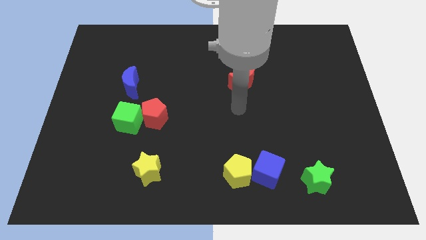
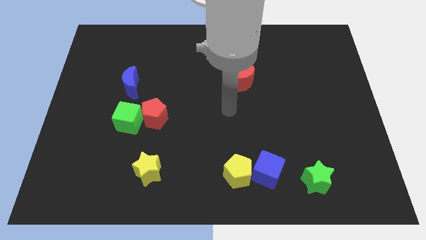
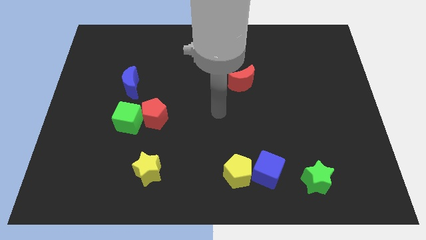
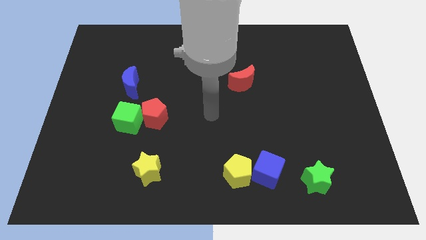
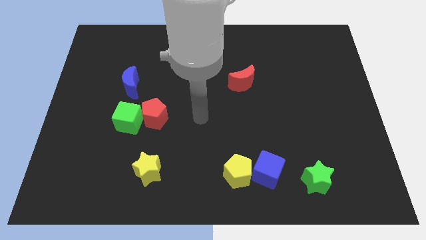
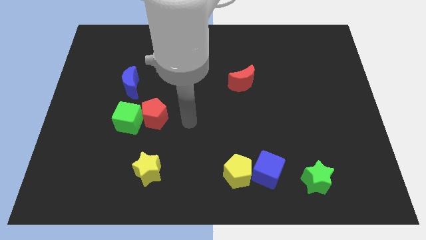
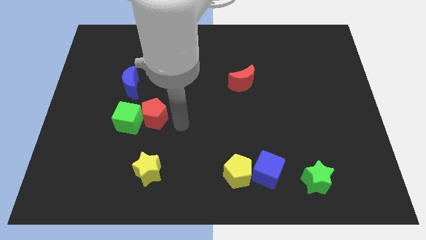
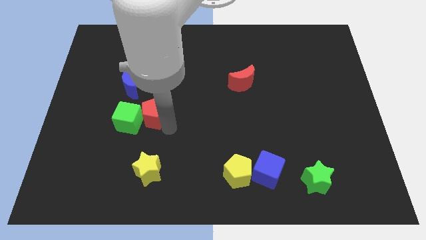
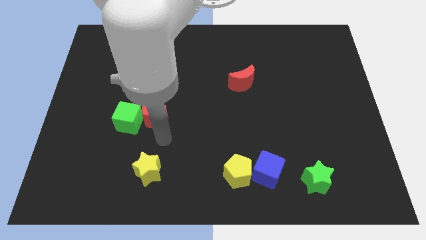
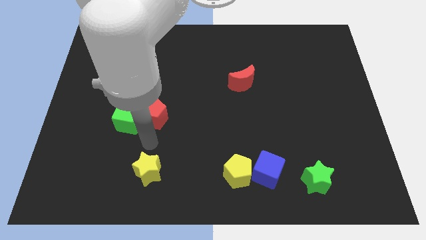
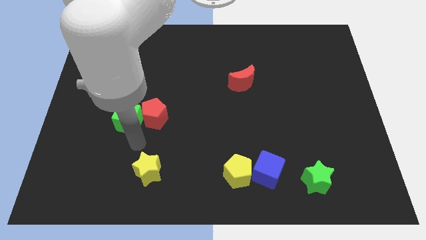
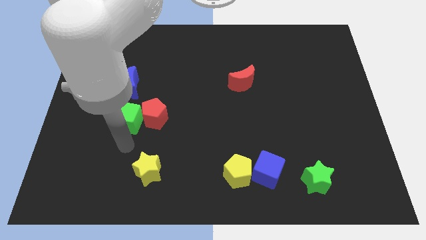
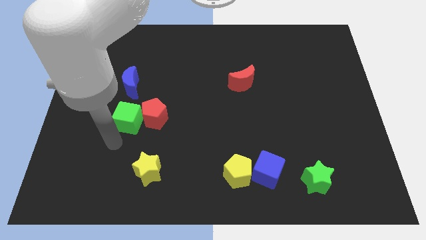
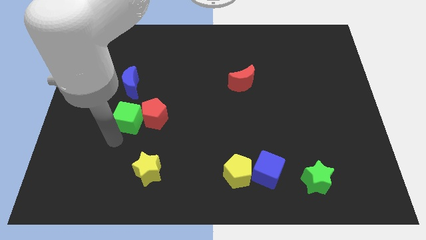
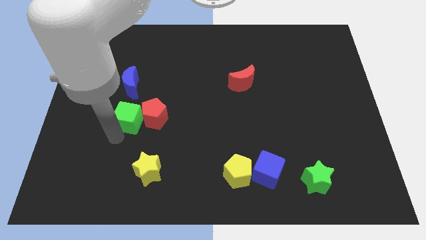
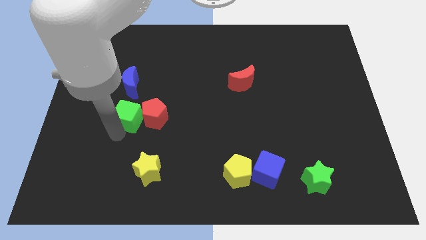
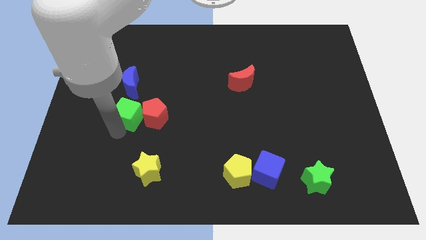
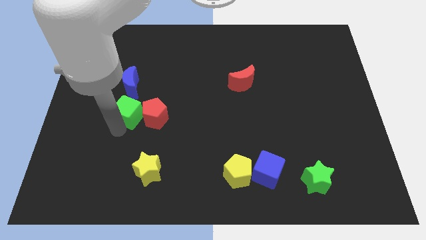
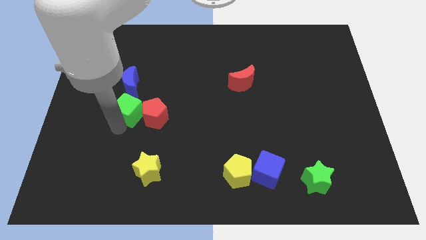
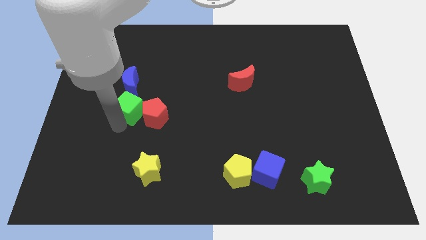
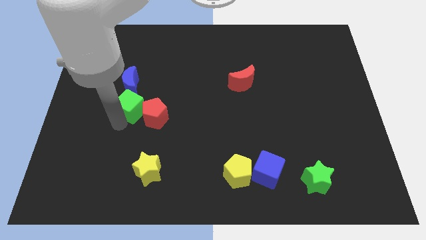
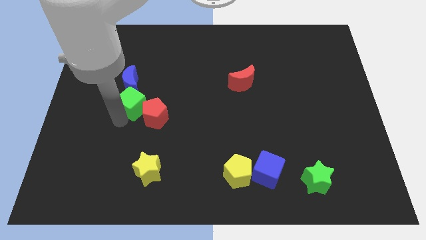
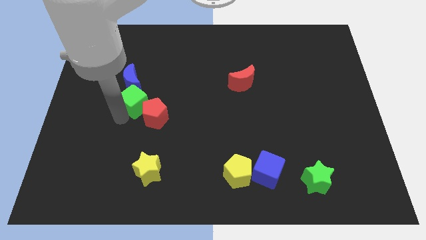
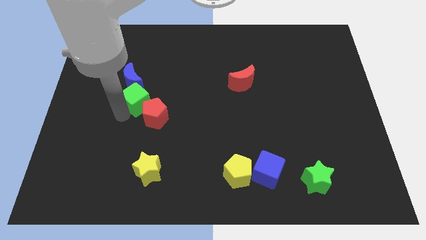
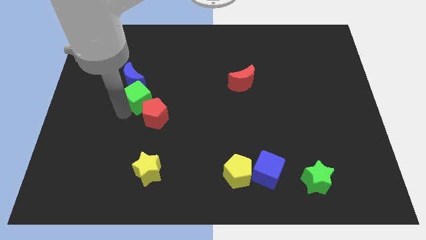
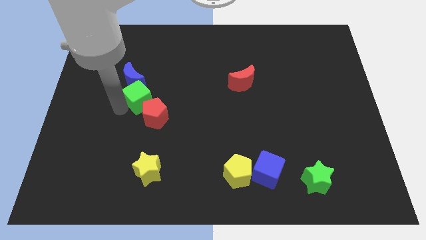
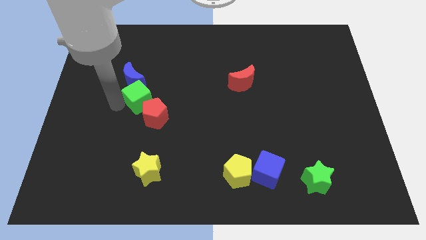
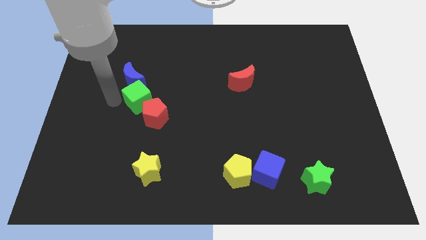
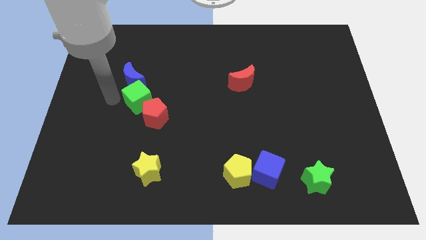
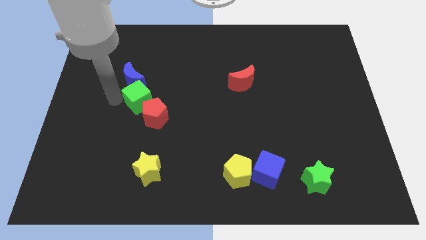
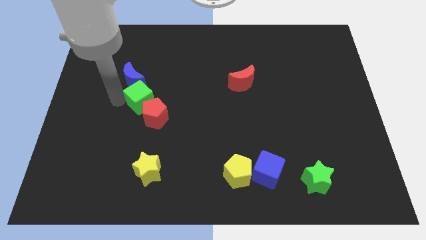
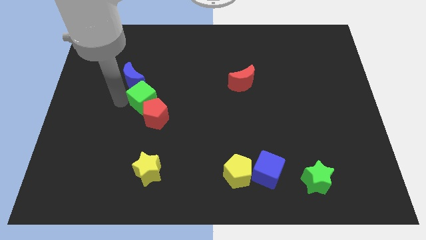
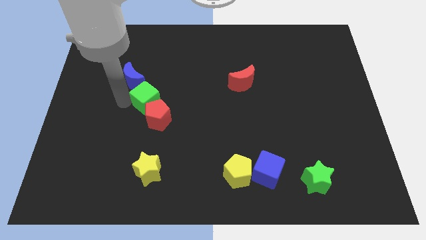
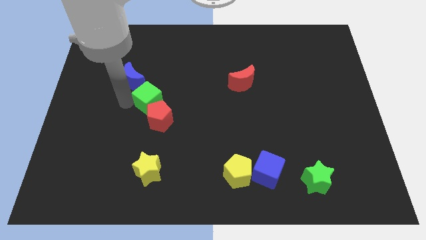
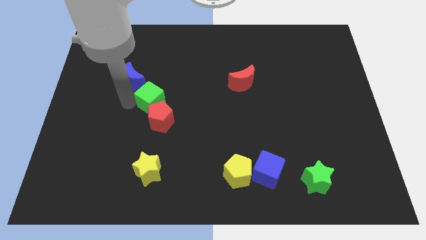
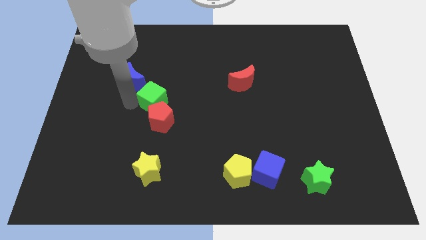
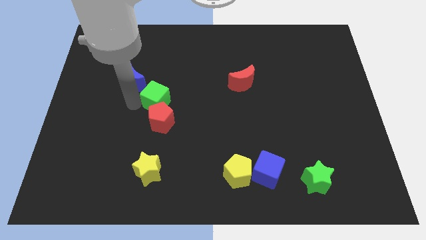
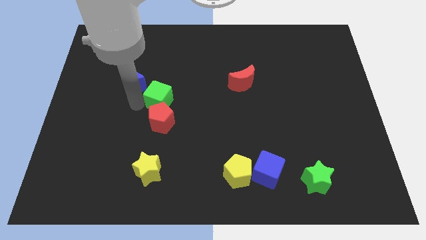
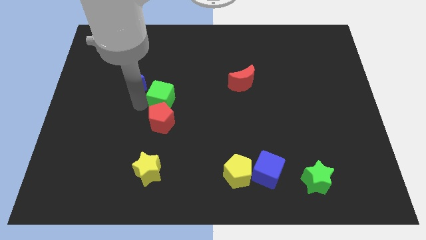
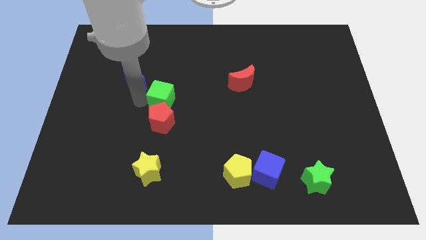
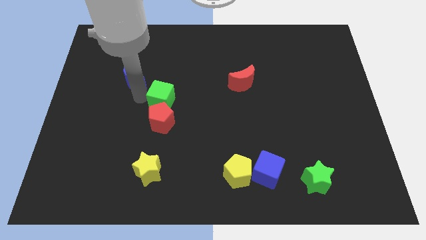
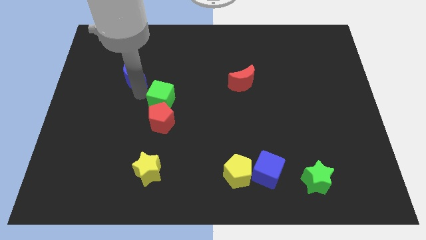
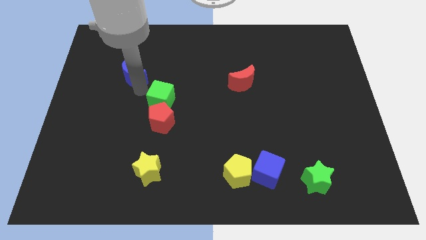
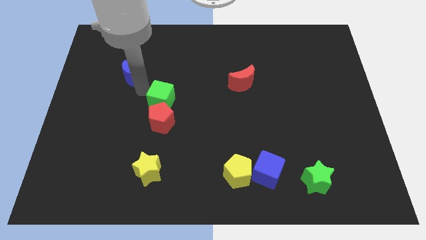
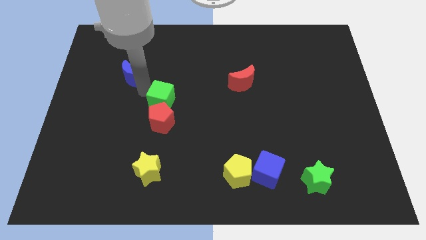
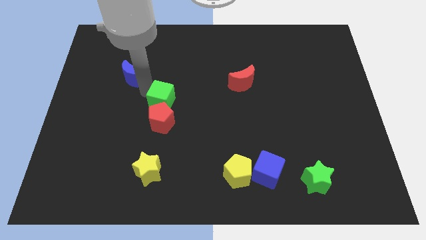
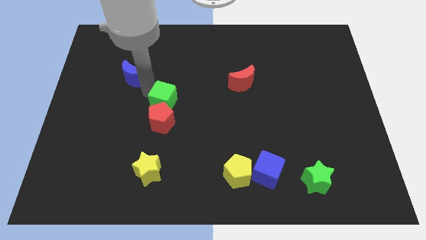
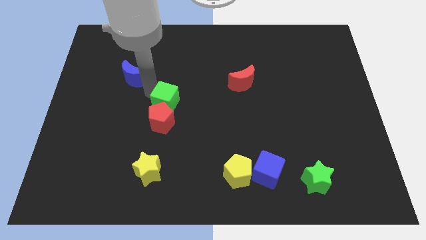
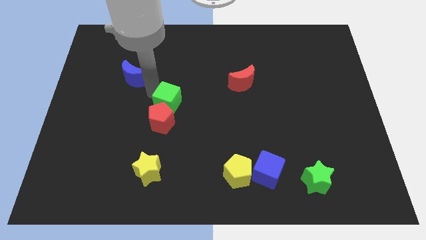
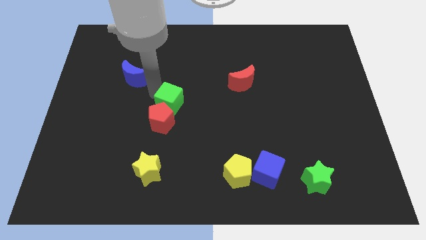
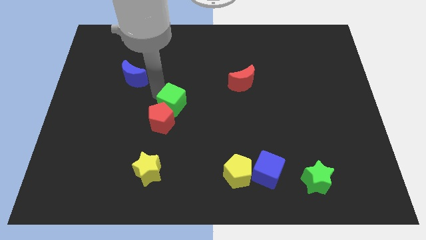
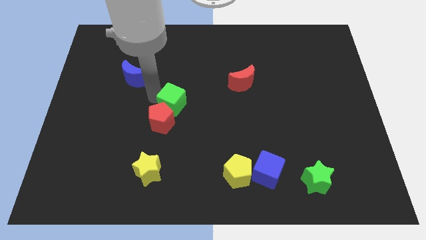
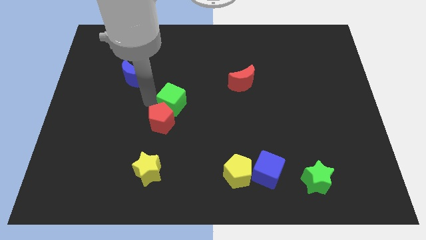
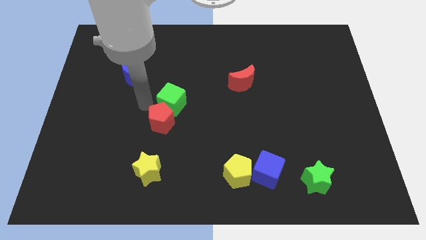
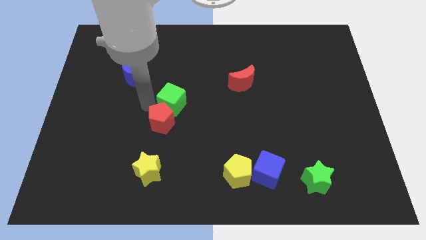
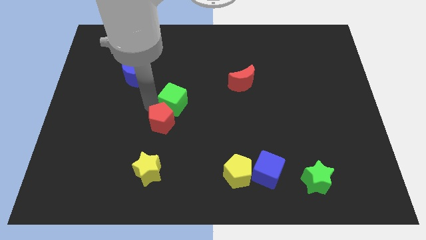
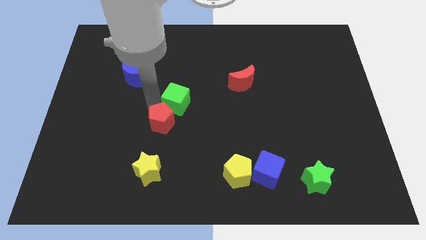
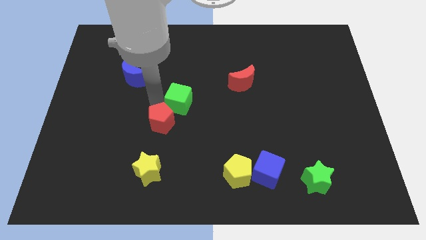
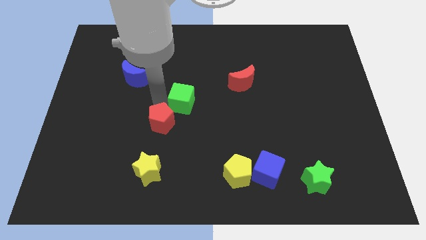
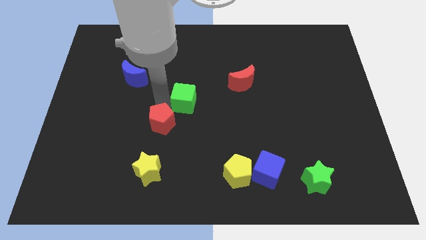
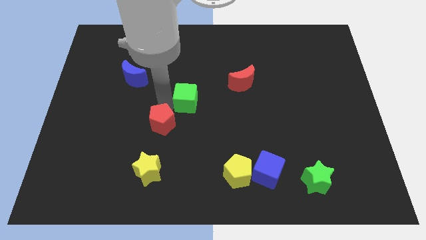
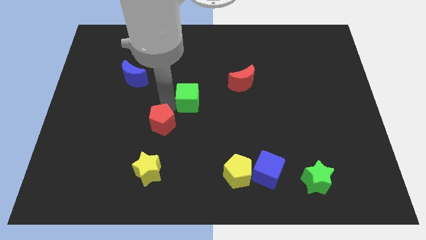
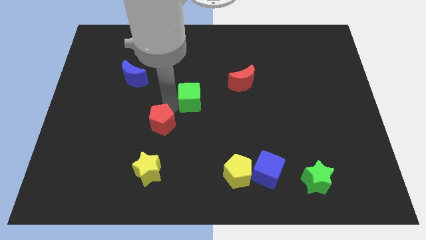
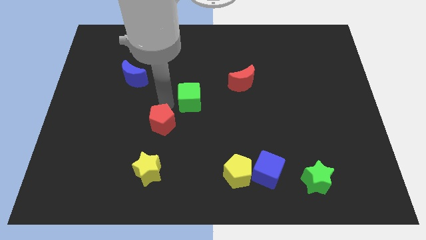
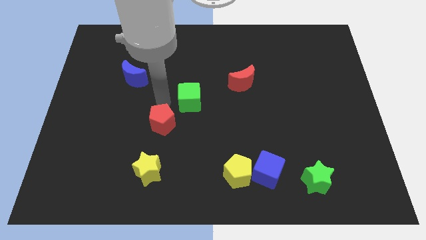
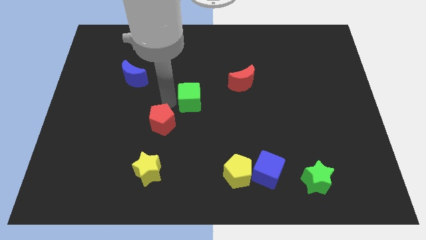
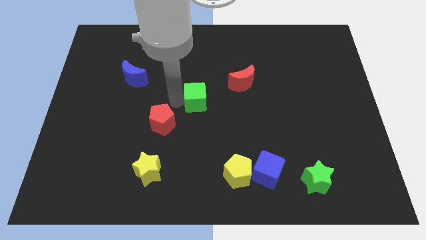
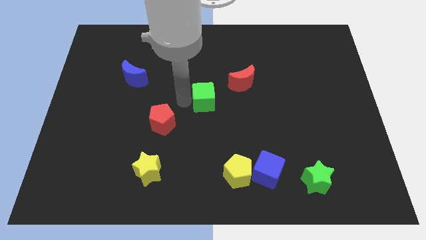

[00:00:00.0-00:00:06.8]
move the green cube to the bottom left side of the red moon

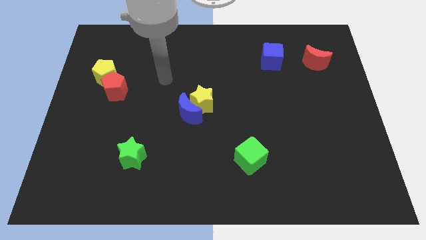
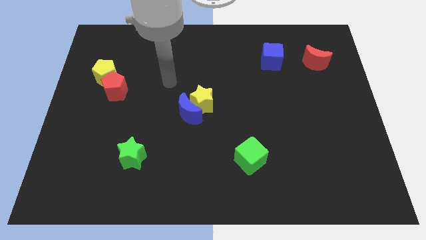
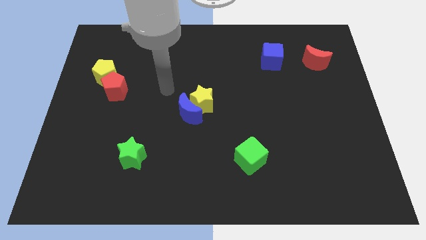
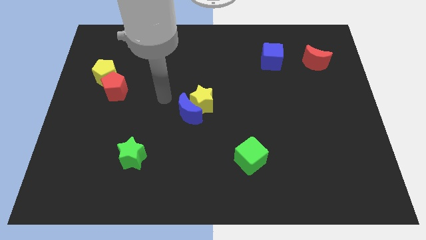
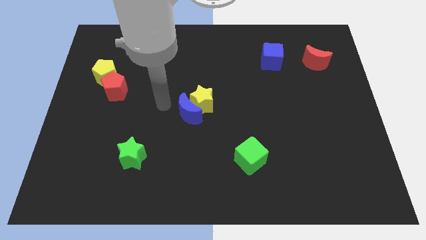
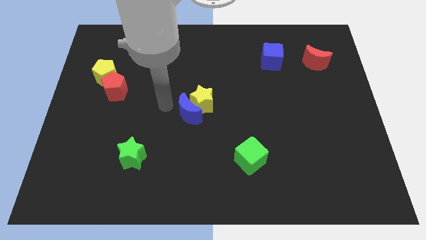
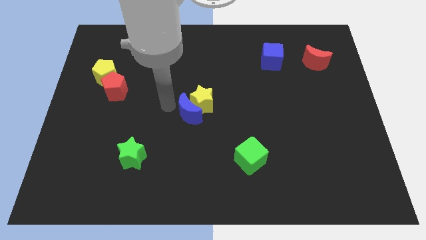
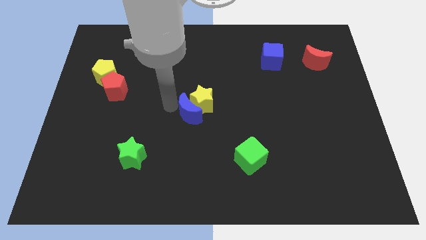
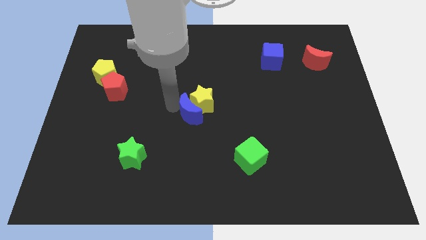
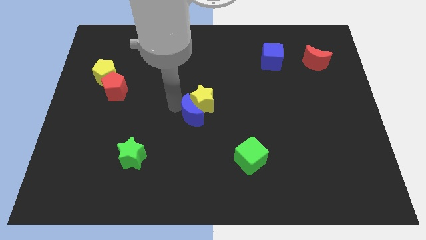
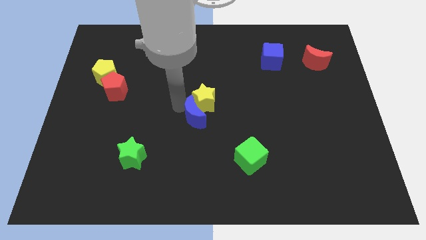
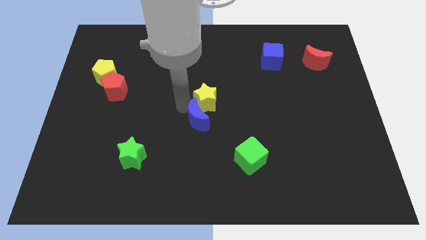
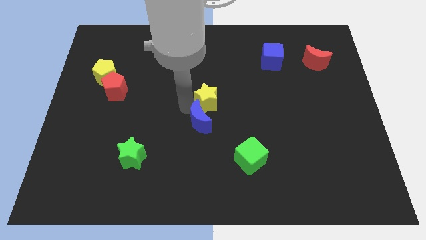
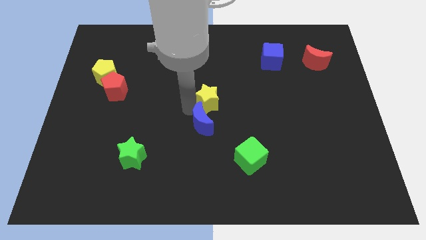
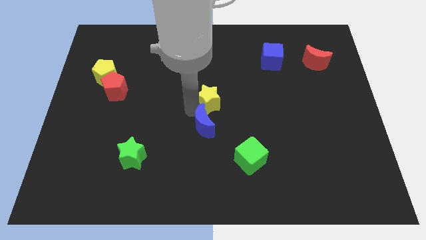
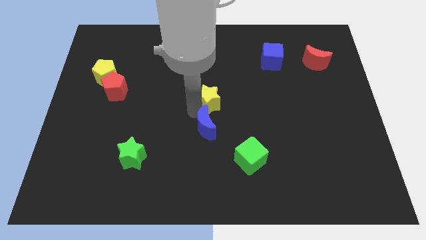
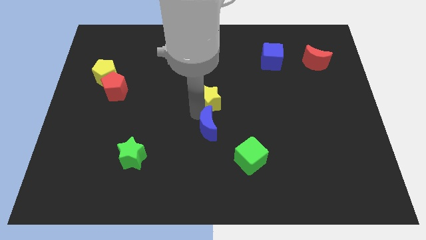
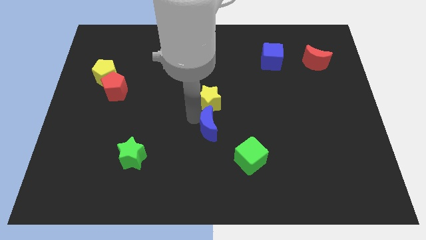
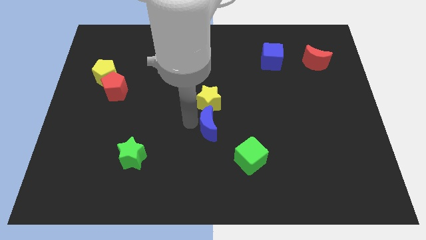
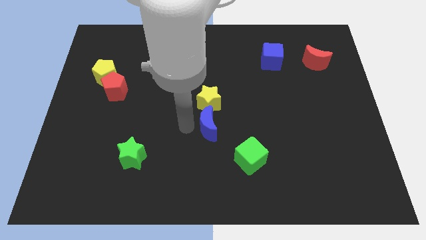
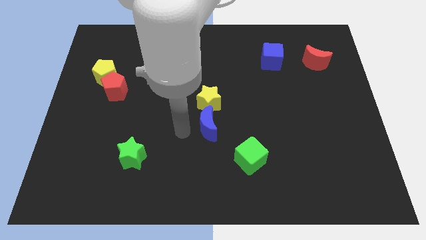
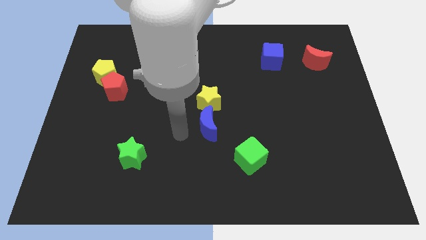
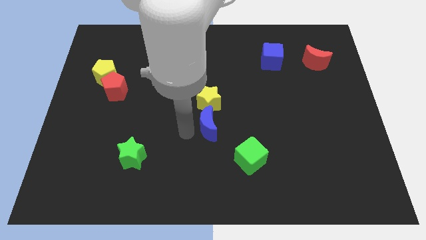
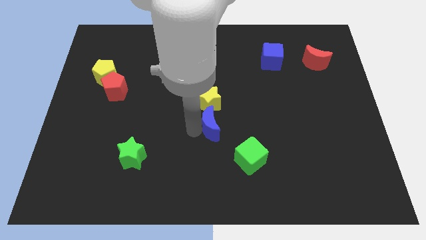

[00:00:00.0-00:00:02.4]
put the blue moon to the bottom right of the yellow star
